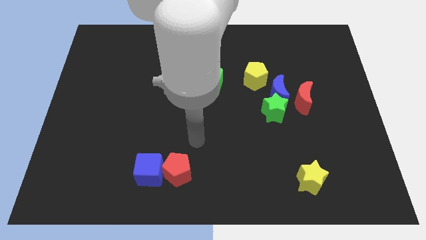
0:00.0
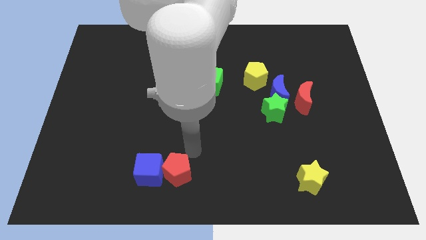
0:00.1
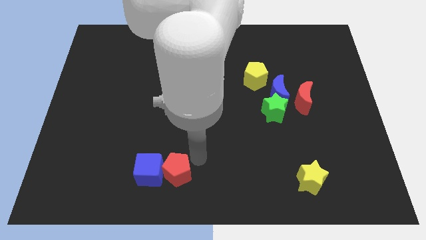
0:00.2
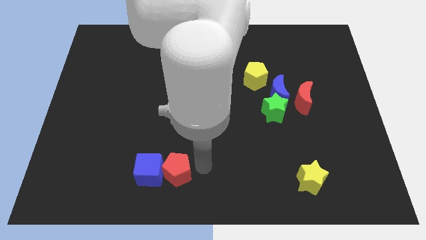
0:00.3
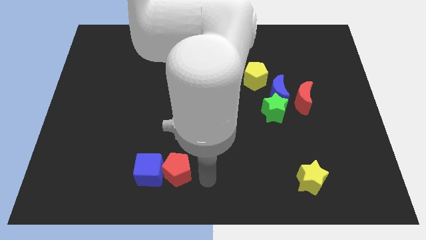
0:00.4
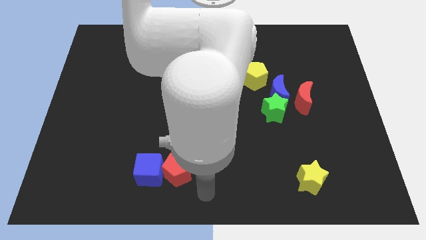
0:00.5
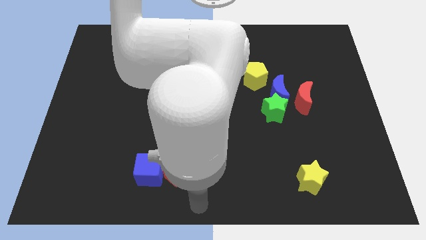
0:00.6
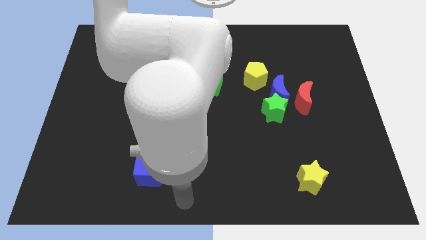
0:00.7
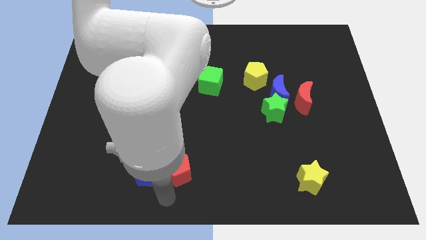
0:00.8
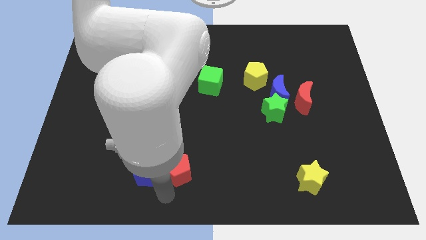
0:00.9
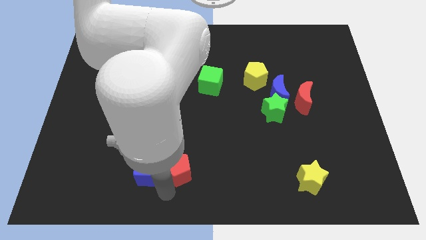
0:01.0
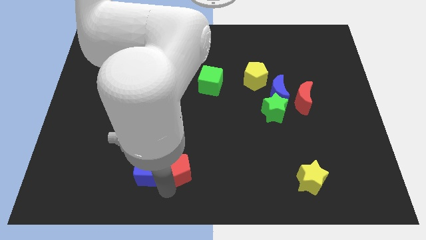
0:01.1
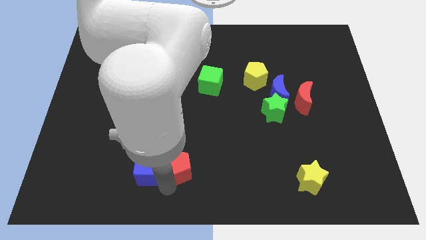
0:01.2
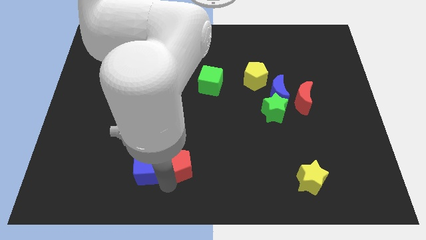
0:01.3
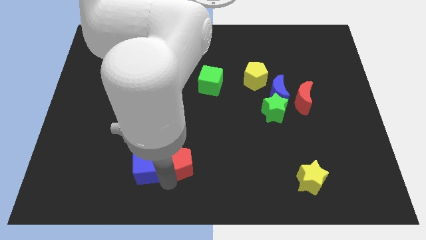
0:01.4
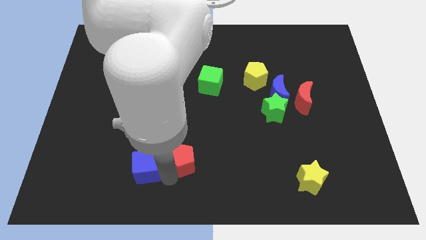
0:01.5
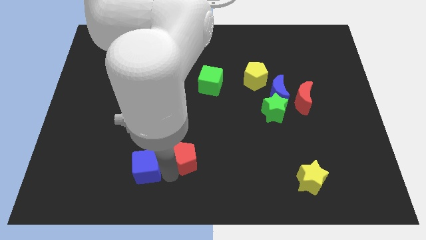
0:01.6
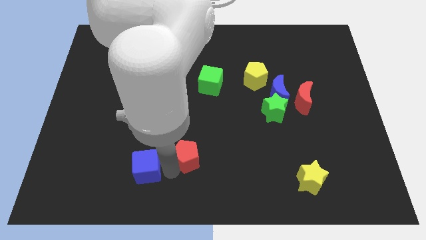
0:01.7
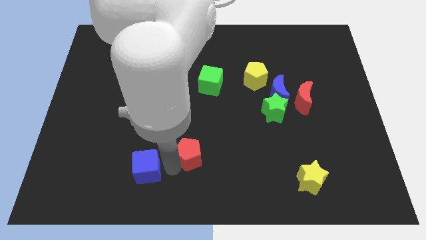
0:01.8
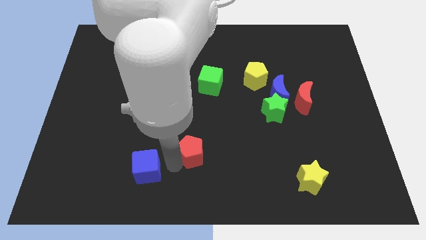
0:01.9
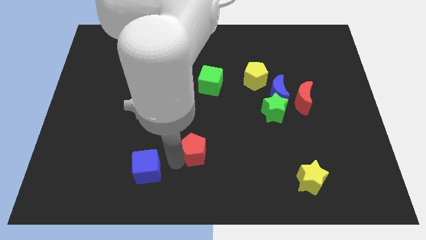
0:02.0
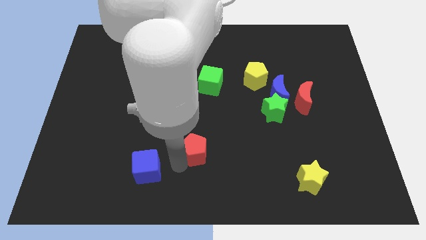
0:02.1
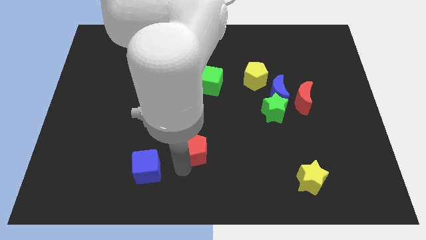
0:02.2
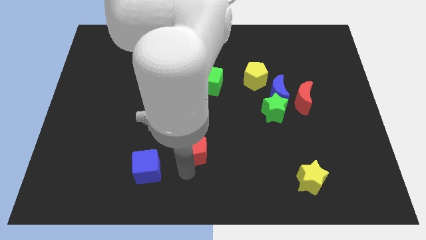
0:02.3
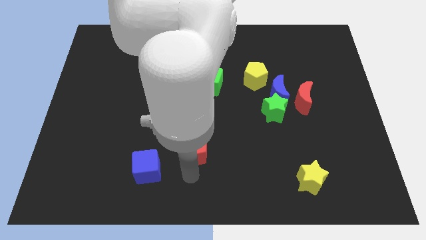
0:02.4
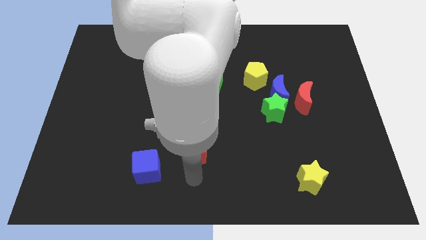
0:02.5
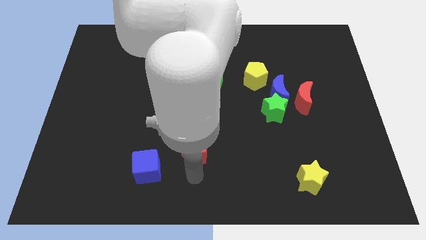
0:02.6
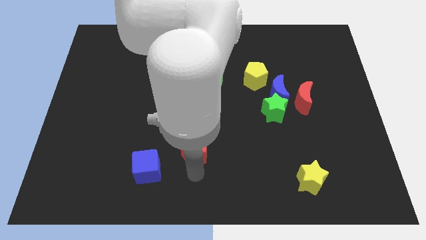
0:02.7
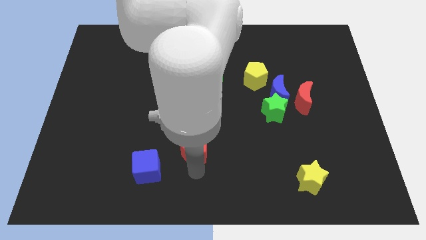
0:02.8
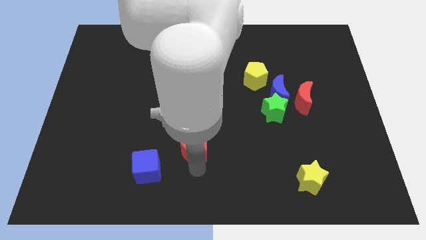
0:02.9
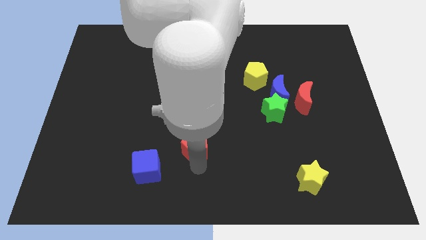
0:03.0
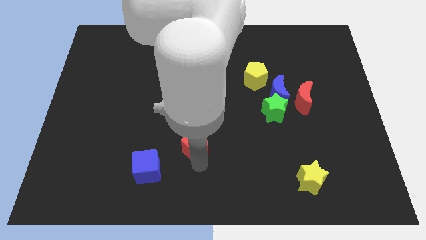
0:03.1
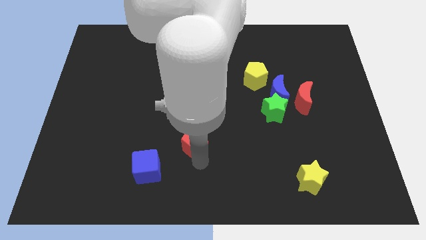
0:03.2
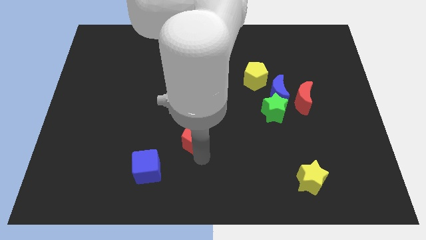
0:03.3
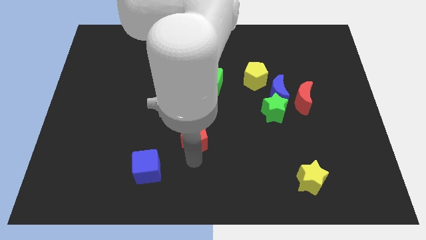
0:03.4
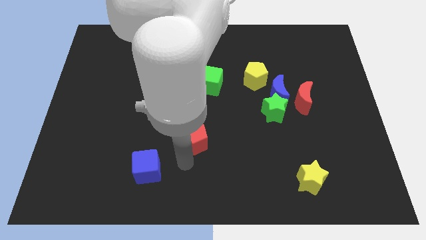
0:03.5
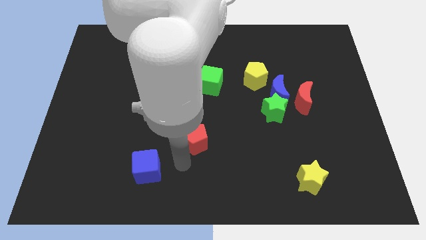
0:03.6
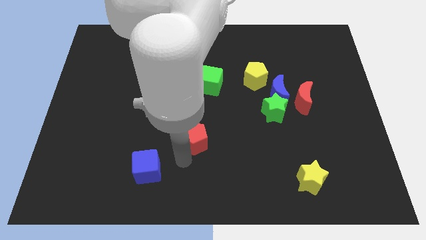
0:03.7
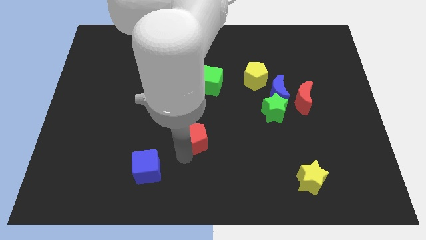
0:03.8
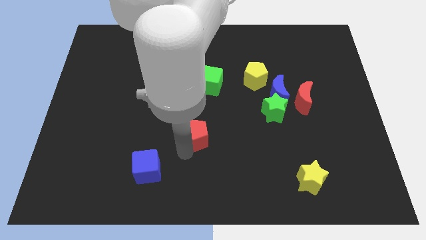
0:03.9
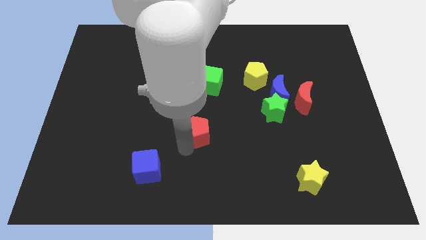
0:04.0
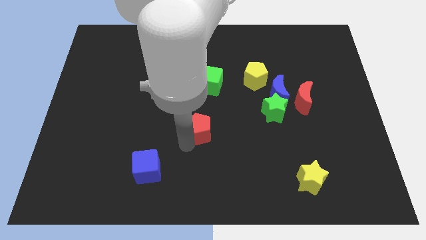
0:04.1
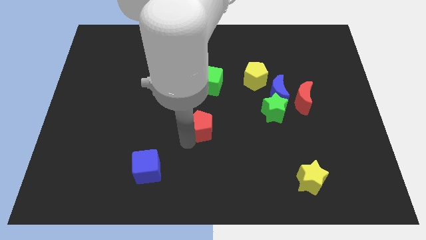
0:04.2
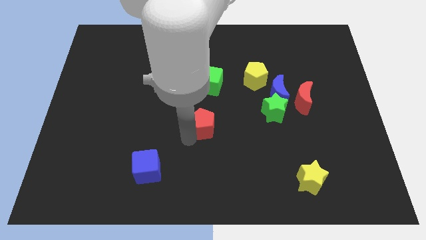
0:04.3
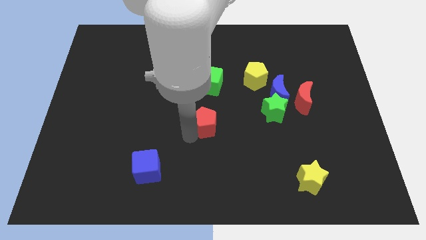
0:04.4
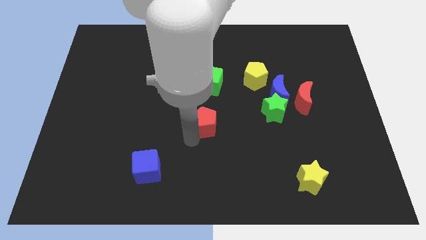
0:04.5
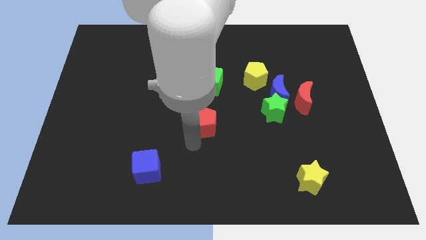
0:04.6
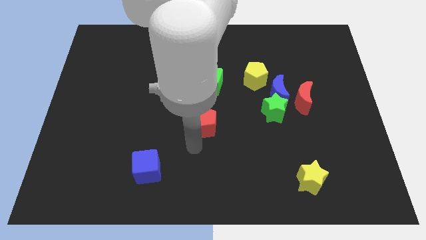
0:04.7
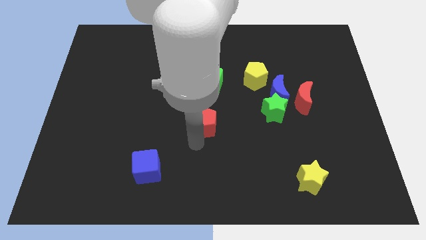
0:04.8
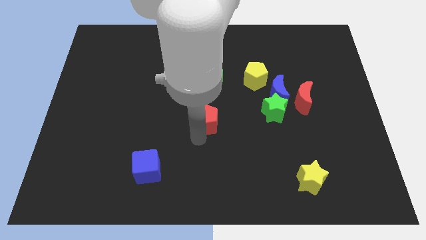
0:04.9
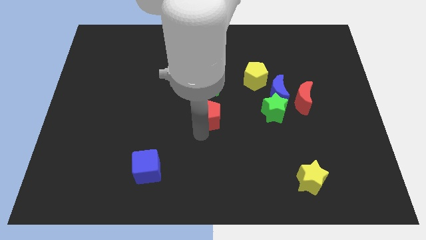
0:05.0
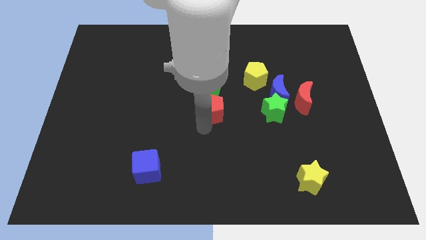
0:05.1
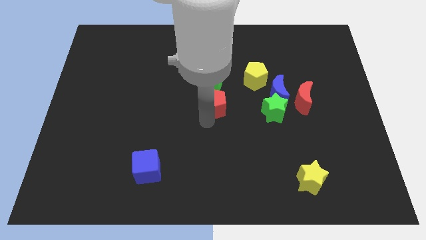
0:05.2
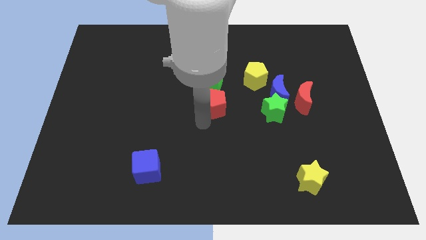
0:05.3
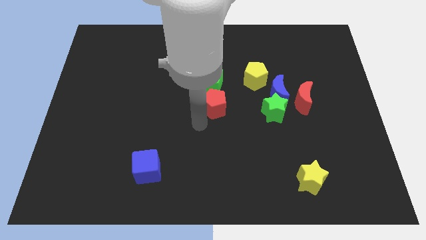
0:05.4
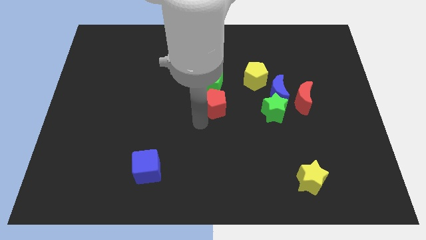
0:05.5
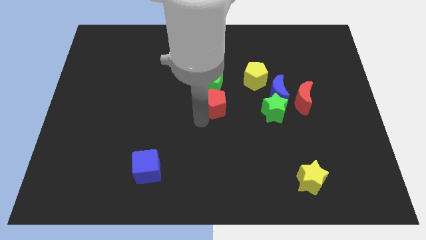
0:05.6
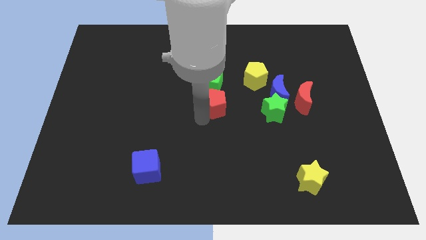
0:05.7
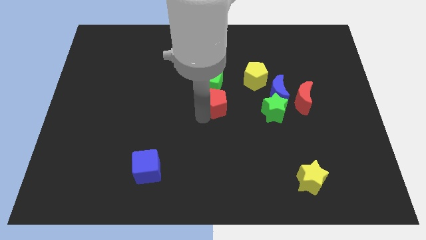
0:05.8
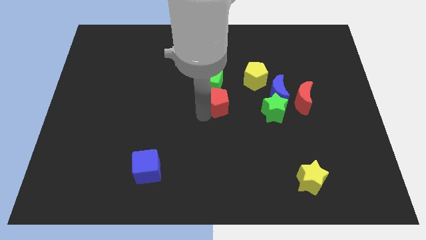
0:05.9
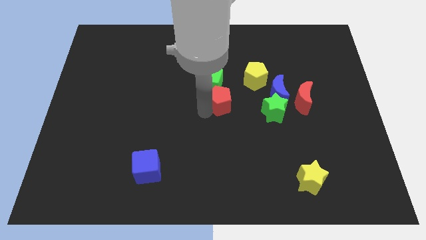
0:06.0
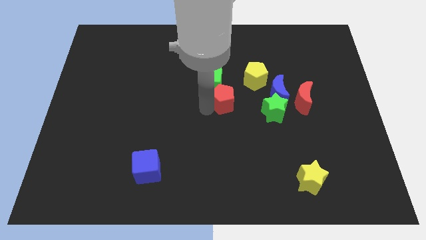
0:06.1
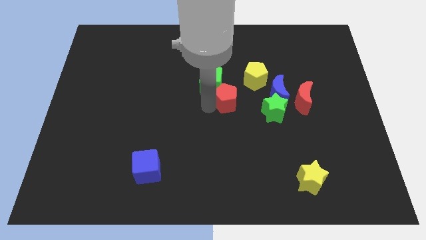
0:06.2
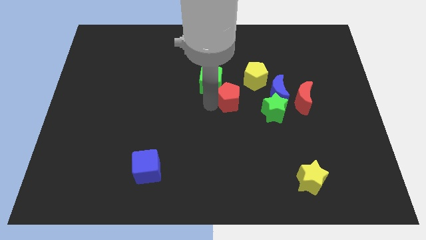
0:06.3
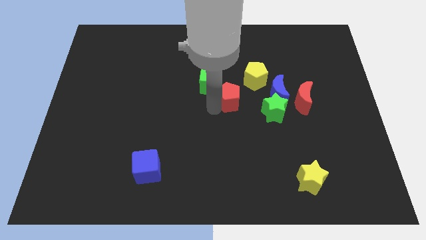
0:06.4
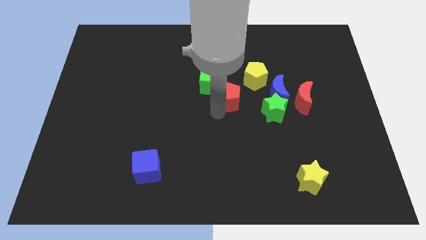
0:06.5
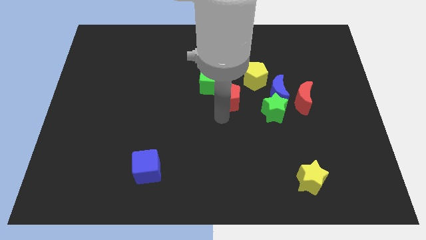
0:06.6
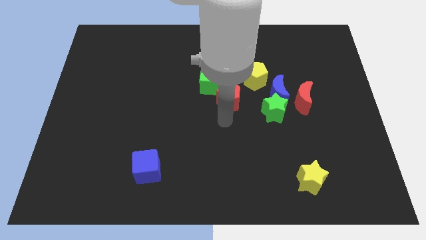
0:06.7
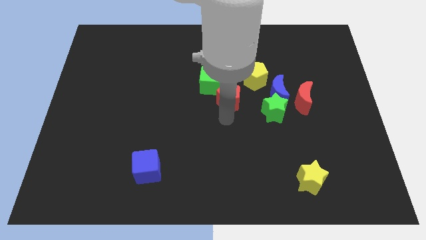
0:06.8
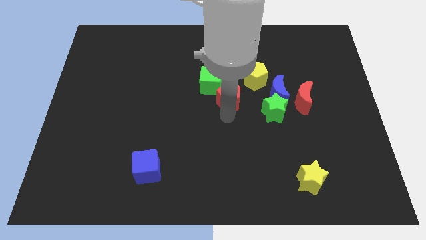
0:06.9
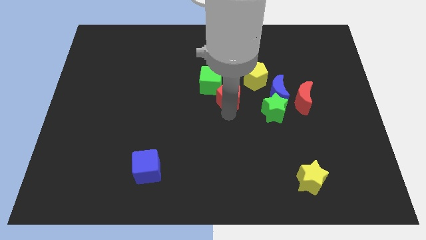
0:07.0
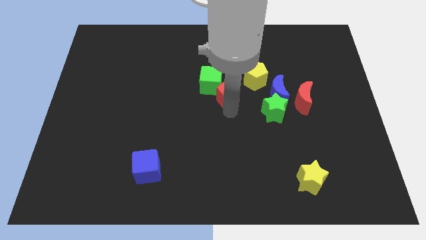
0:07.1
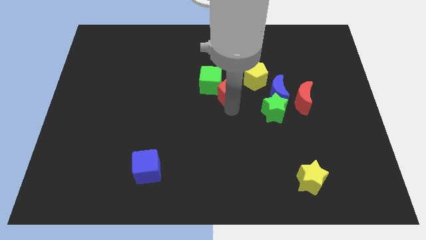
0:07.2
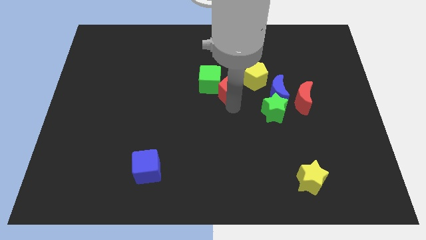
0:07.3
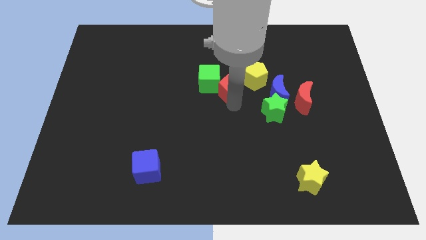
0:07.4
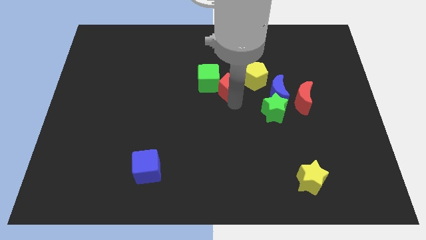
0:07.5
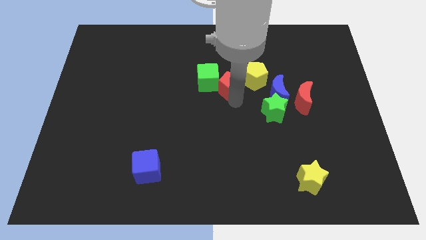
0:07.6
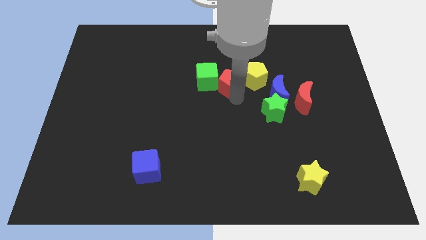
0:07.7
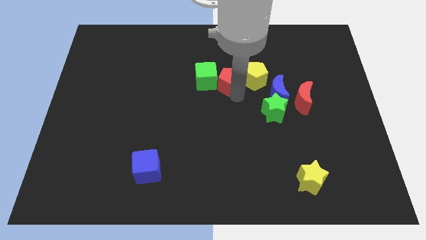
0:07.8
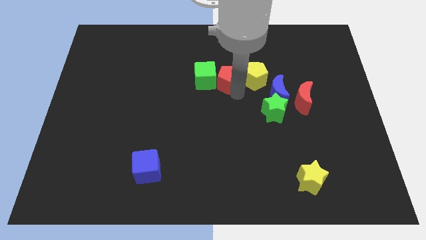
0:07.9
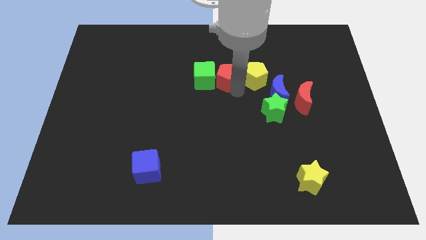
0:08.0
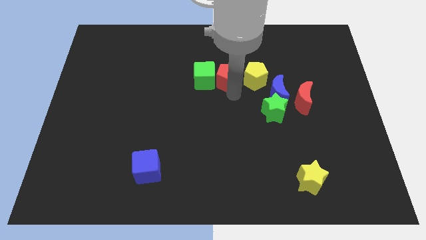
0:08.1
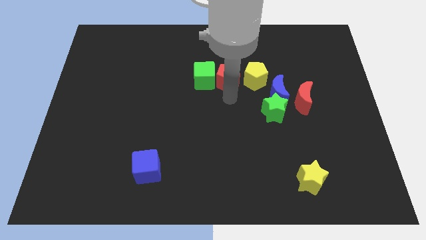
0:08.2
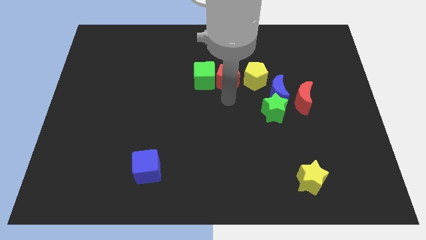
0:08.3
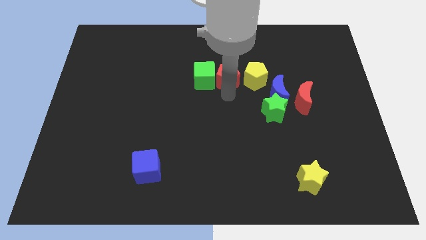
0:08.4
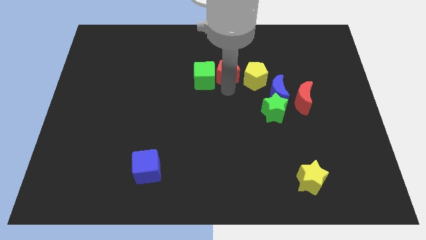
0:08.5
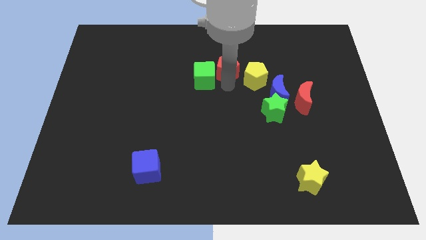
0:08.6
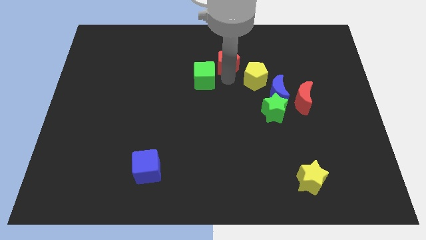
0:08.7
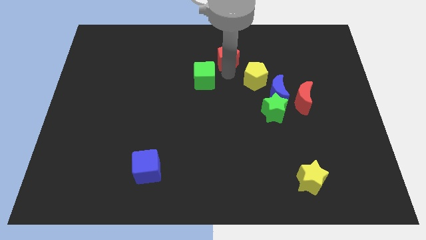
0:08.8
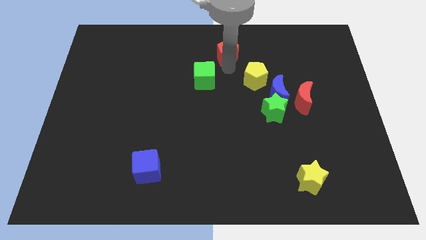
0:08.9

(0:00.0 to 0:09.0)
slide the red pentagon to the top
